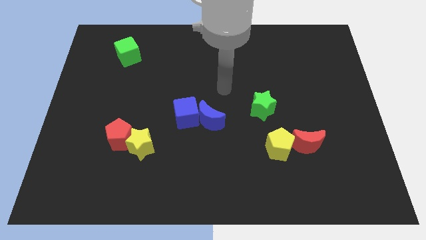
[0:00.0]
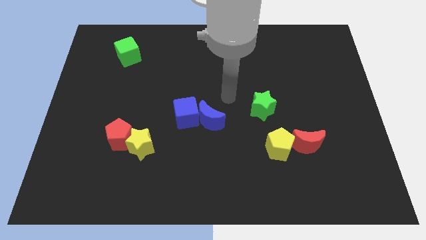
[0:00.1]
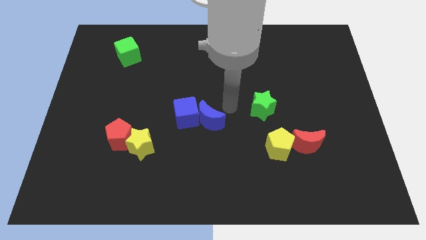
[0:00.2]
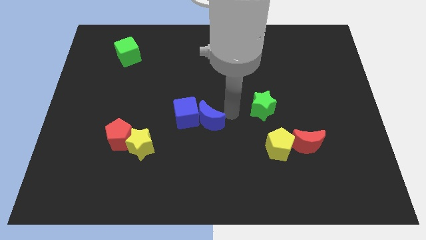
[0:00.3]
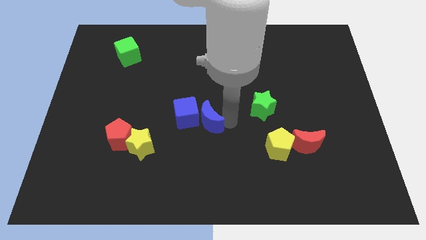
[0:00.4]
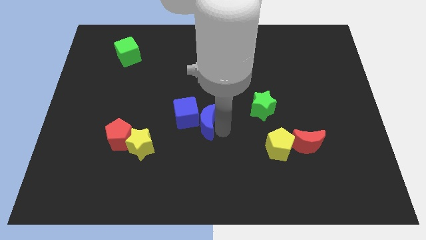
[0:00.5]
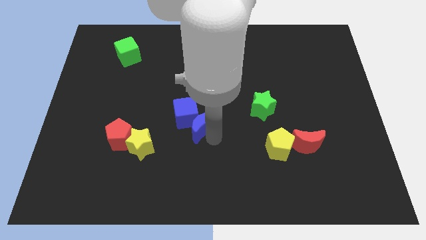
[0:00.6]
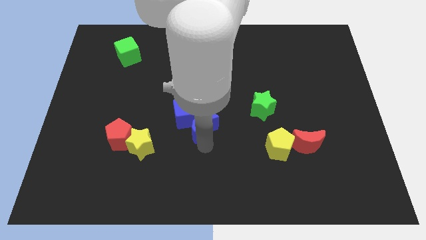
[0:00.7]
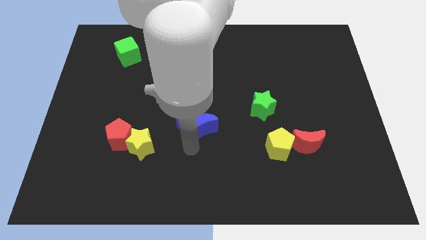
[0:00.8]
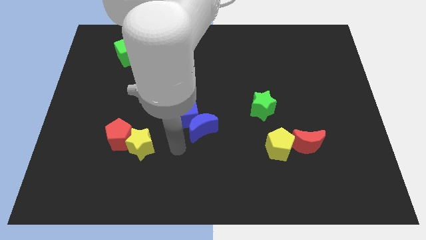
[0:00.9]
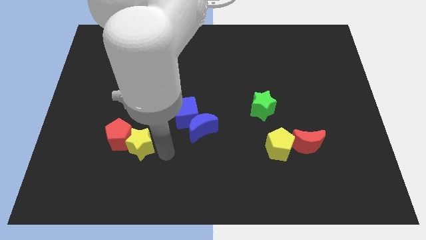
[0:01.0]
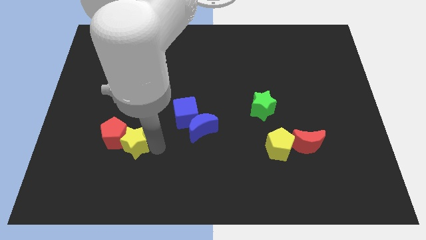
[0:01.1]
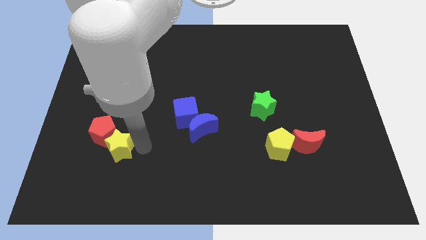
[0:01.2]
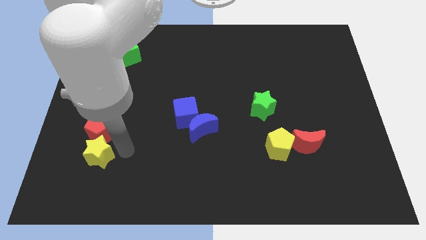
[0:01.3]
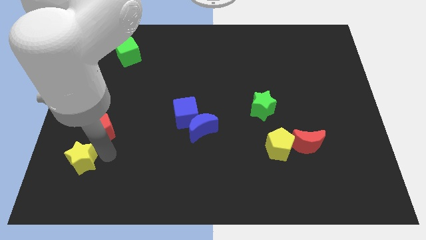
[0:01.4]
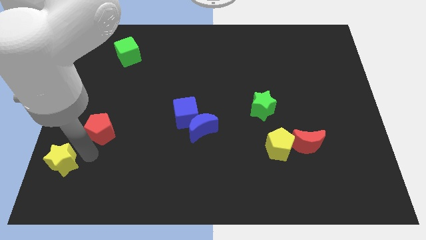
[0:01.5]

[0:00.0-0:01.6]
move the red pentagon away from the yellow star

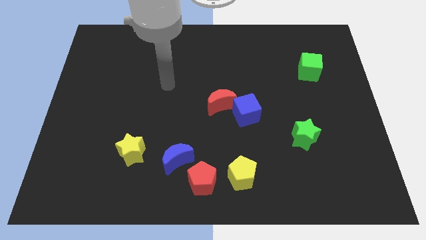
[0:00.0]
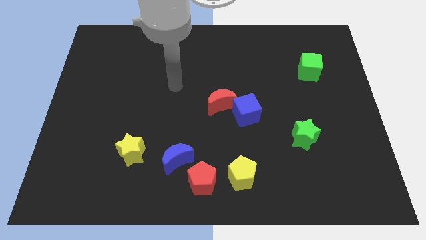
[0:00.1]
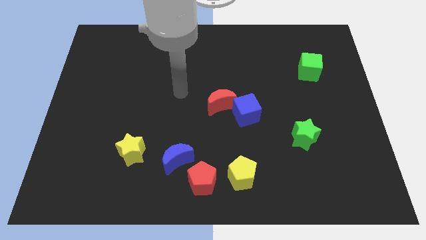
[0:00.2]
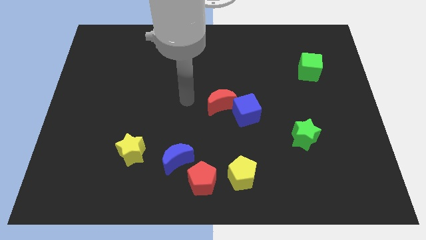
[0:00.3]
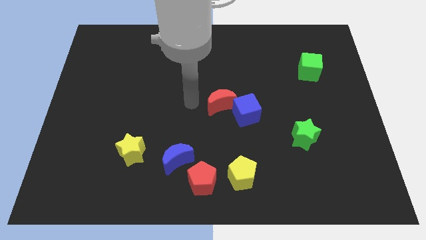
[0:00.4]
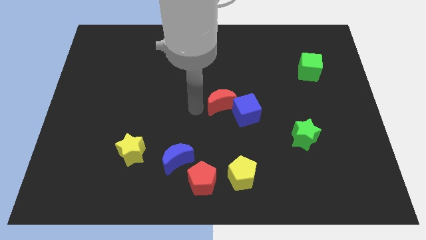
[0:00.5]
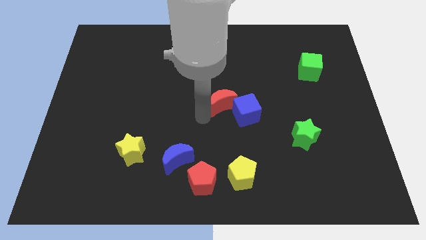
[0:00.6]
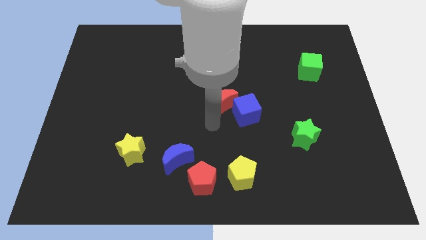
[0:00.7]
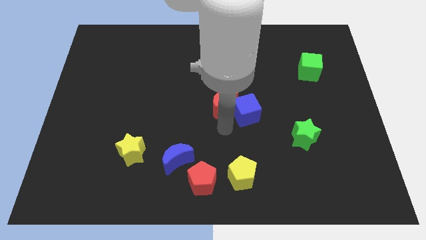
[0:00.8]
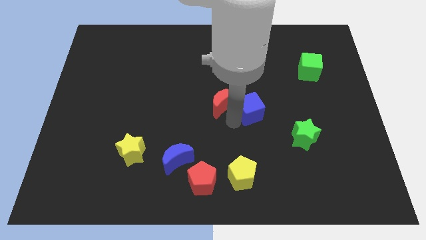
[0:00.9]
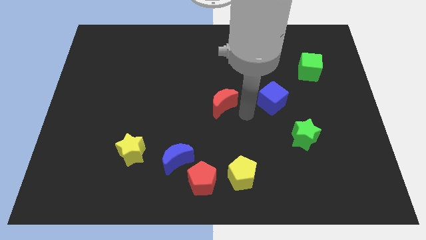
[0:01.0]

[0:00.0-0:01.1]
separate the red moon from the blue cube

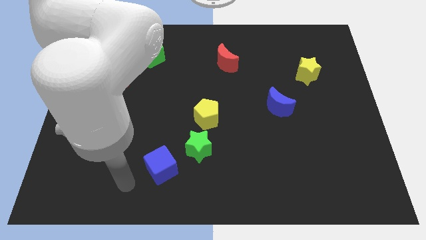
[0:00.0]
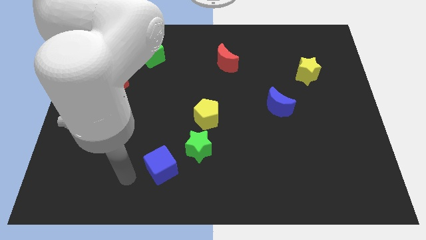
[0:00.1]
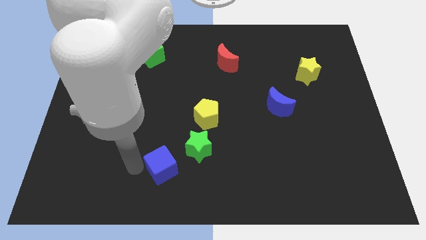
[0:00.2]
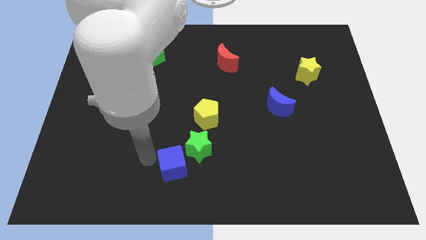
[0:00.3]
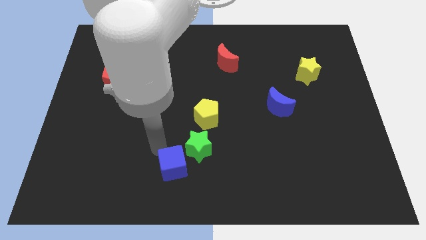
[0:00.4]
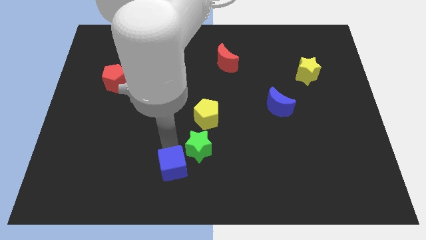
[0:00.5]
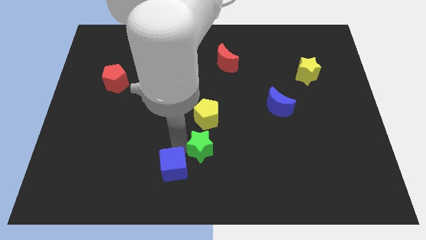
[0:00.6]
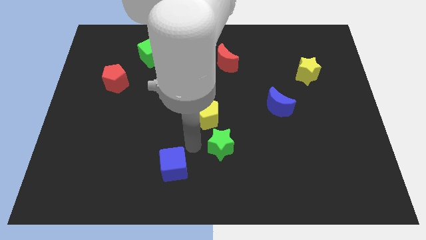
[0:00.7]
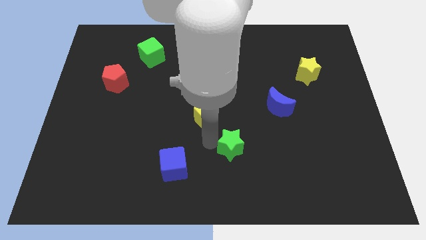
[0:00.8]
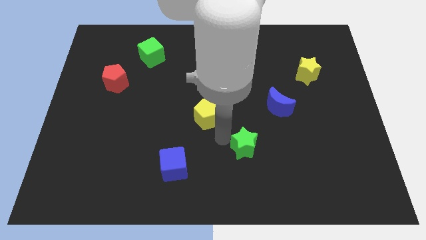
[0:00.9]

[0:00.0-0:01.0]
pull the yellow pentagon apart from the green star

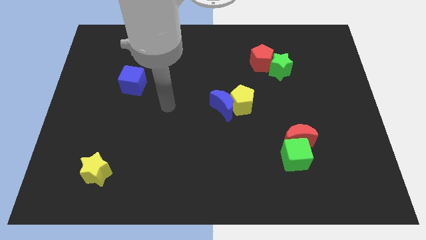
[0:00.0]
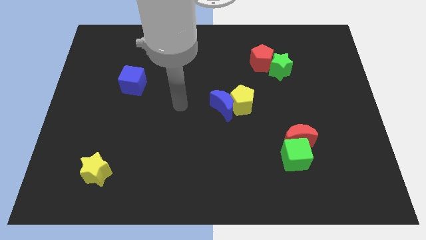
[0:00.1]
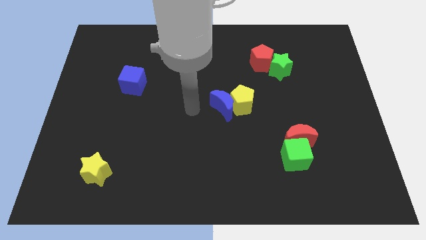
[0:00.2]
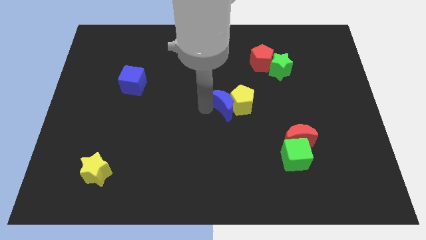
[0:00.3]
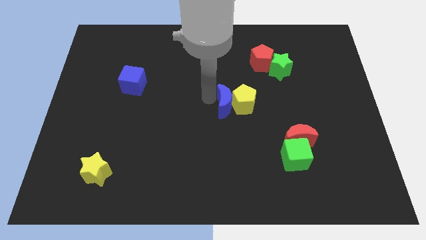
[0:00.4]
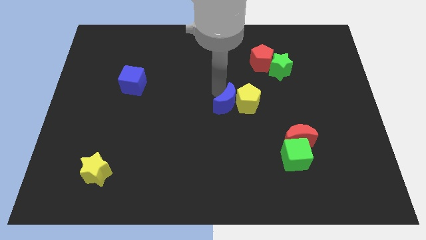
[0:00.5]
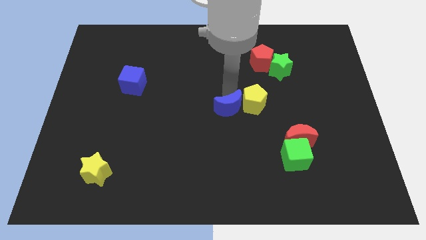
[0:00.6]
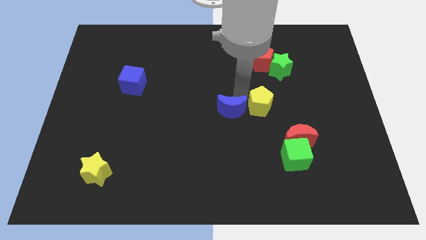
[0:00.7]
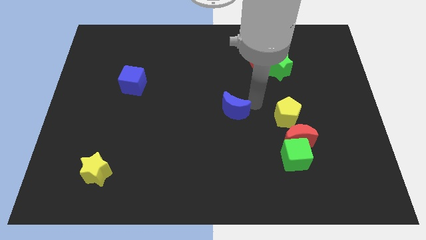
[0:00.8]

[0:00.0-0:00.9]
move the blue moon away from the yellow pentagon

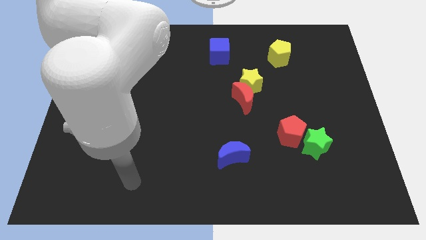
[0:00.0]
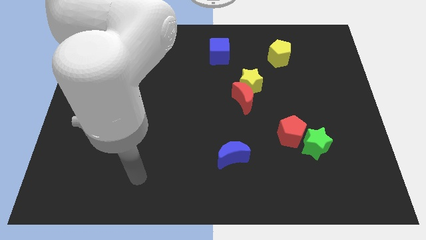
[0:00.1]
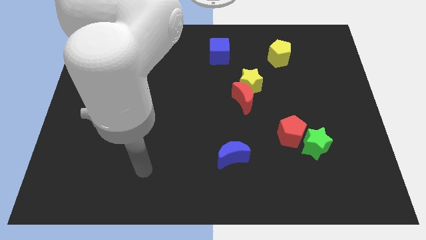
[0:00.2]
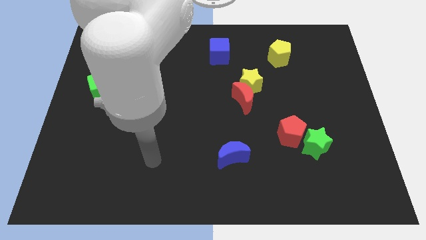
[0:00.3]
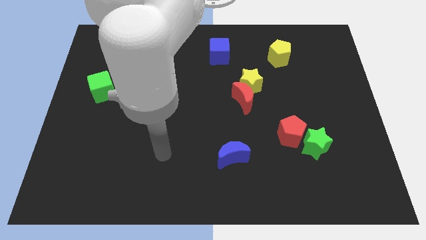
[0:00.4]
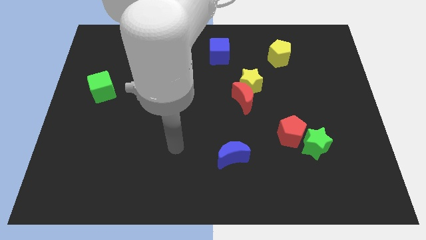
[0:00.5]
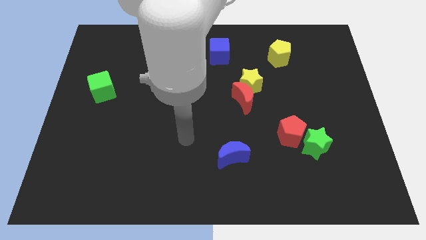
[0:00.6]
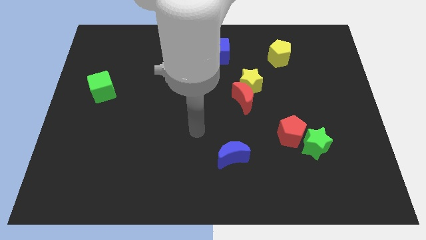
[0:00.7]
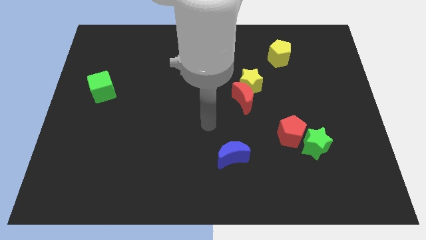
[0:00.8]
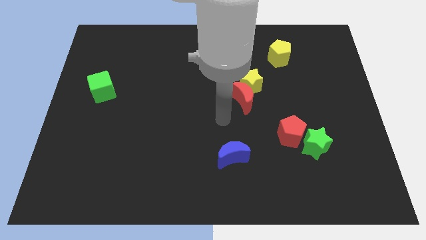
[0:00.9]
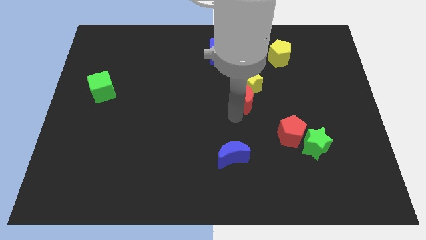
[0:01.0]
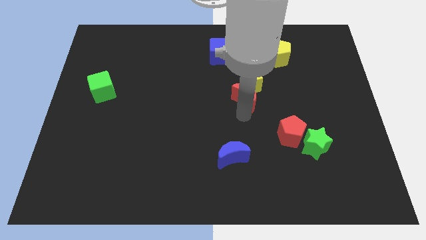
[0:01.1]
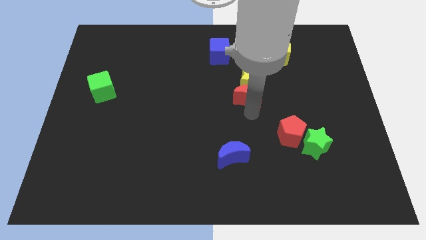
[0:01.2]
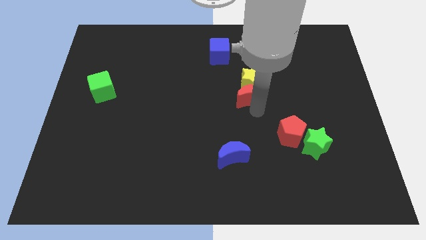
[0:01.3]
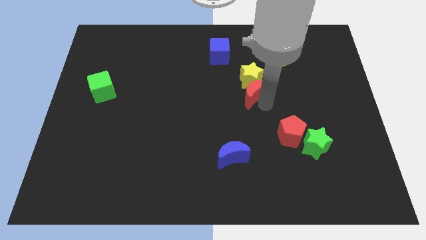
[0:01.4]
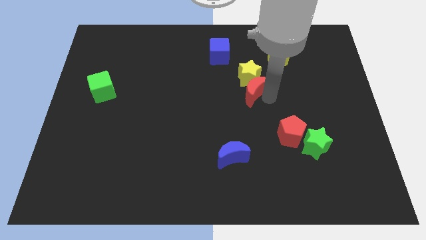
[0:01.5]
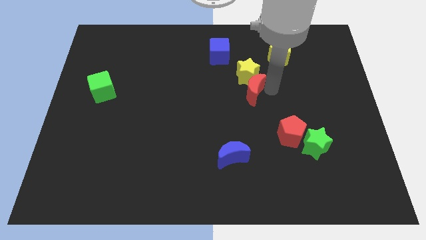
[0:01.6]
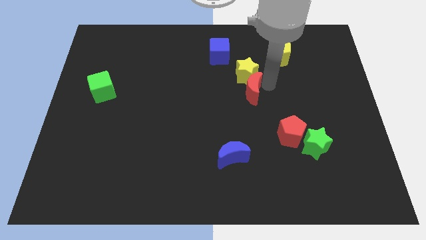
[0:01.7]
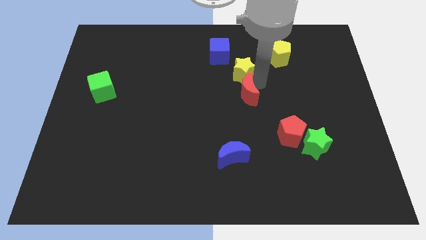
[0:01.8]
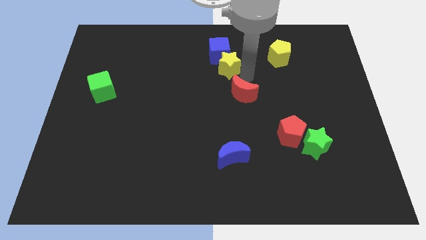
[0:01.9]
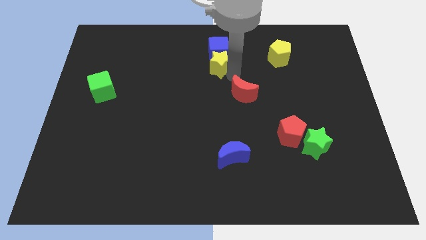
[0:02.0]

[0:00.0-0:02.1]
move the red moon away from the yellow star

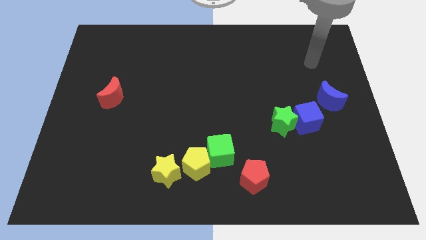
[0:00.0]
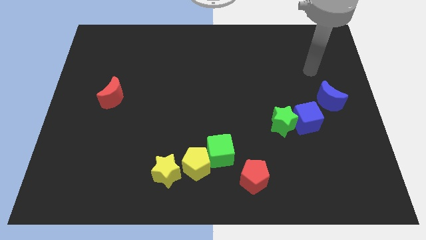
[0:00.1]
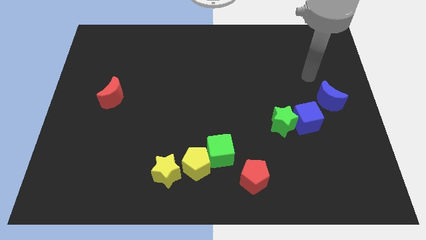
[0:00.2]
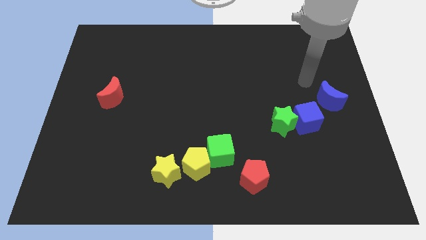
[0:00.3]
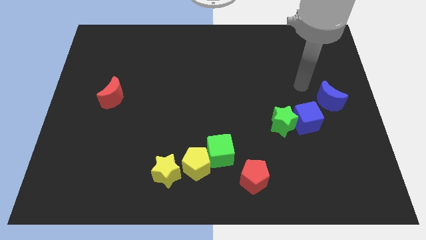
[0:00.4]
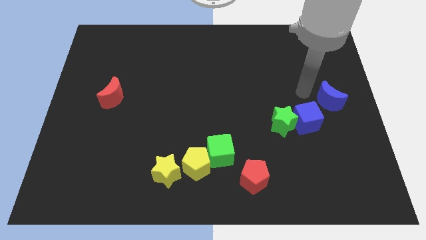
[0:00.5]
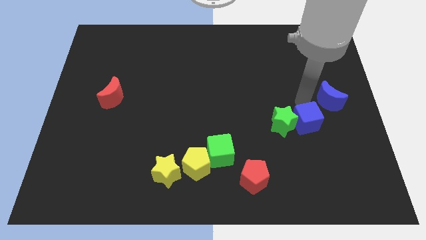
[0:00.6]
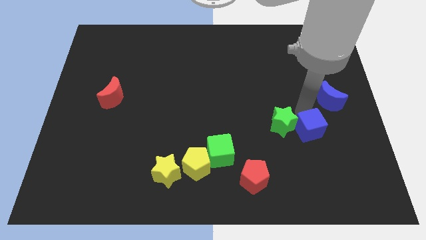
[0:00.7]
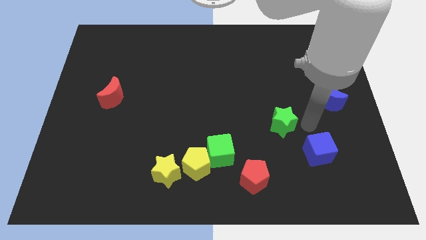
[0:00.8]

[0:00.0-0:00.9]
pull the green star apart from the blue cube

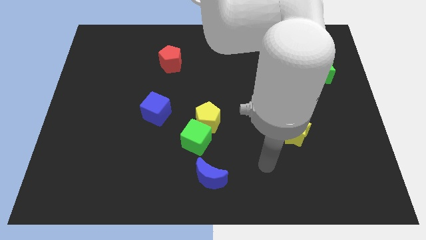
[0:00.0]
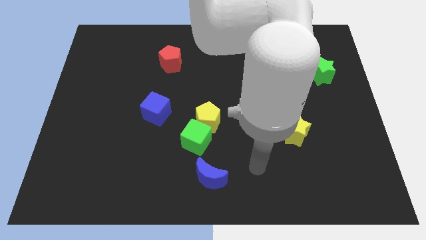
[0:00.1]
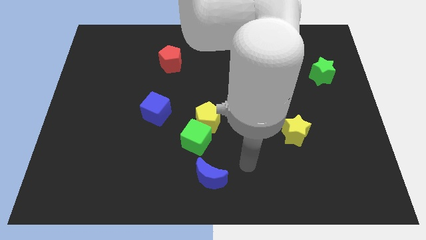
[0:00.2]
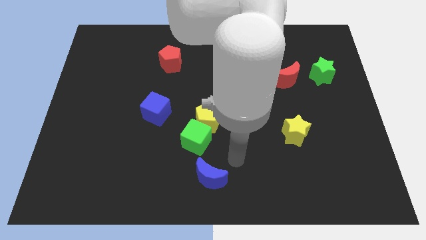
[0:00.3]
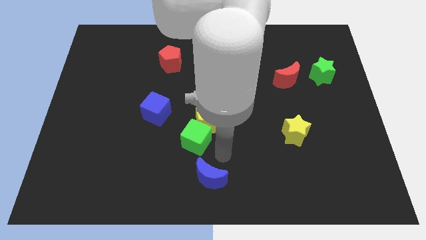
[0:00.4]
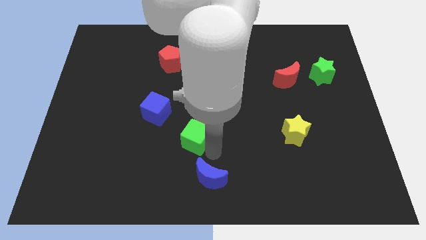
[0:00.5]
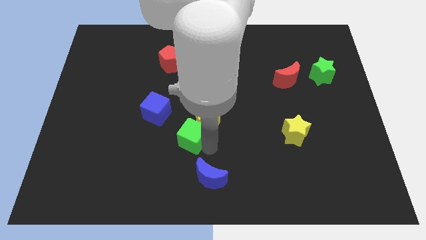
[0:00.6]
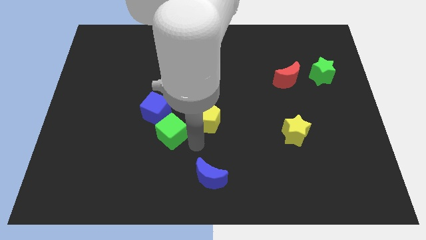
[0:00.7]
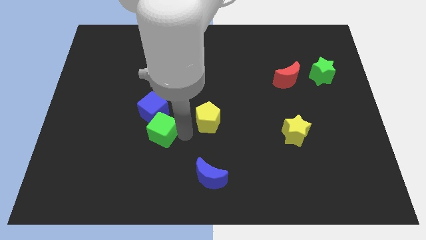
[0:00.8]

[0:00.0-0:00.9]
pull the yellow pentagon apart from the green cube

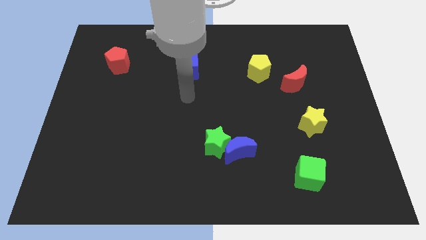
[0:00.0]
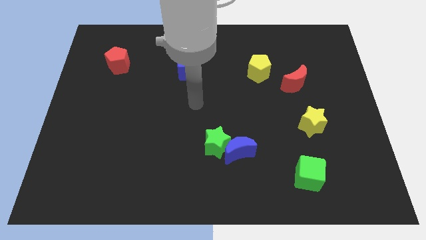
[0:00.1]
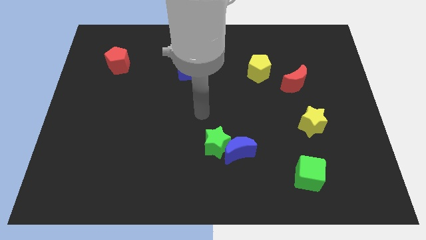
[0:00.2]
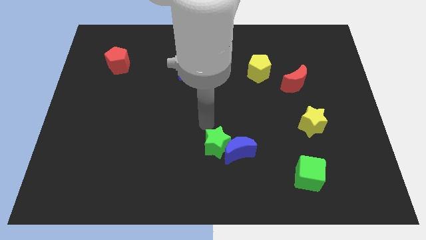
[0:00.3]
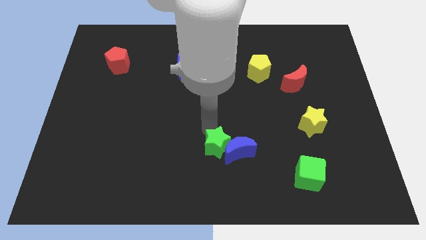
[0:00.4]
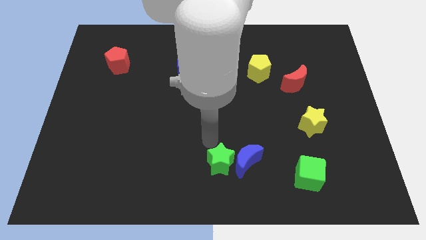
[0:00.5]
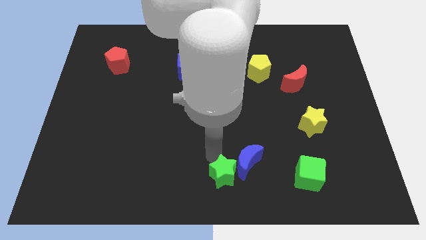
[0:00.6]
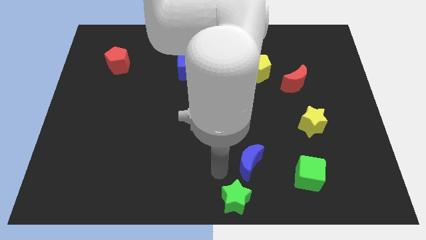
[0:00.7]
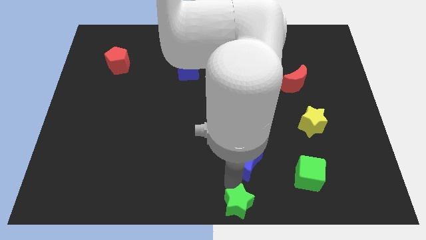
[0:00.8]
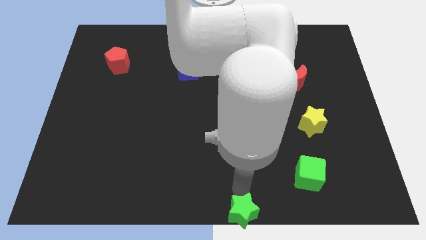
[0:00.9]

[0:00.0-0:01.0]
separate the blue moon from the green star

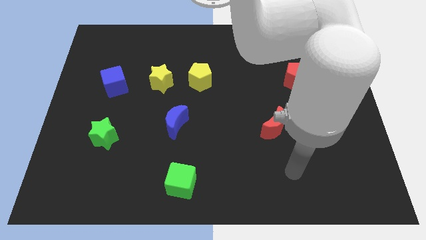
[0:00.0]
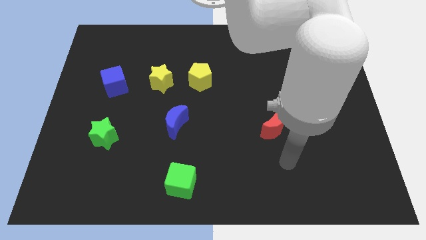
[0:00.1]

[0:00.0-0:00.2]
separate the yellow star from the yellow pentagon
